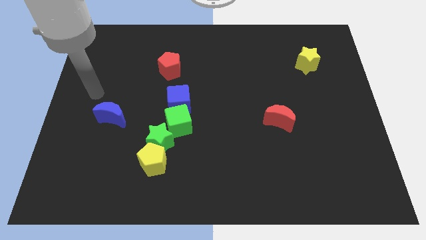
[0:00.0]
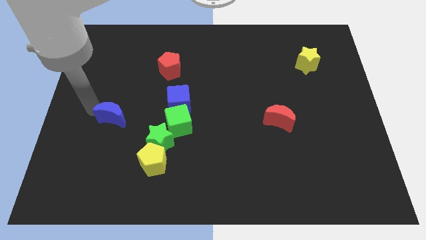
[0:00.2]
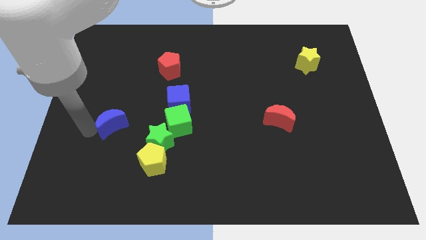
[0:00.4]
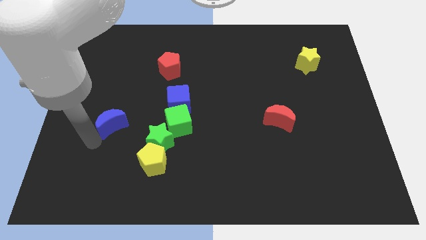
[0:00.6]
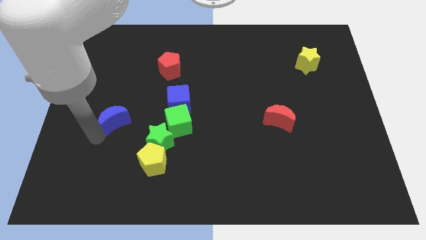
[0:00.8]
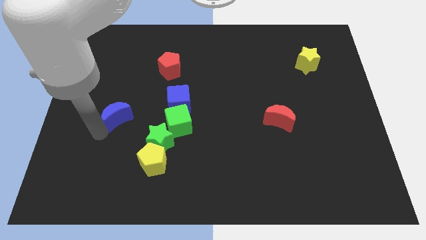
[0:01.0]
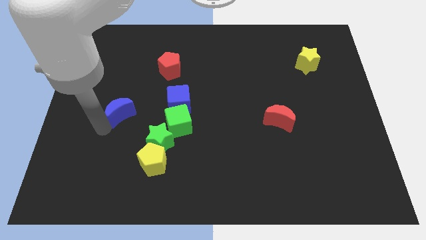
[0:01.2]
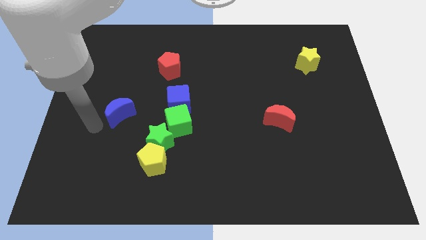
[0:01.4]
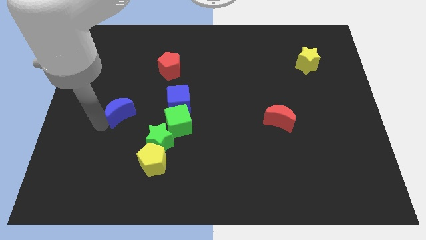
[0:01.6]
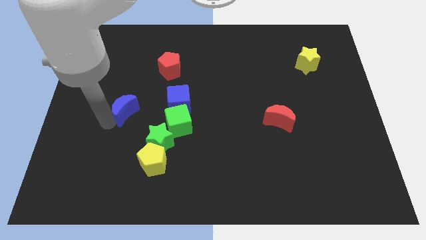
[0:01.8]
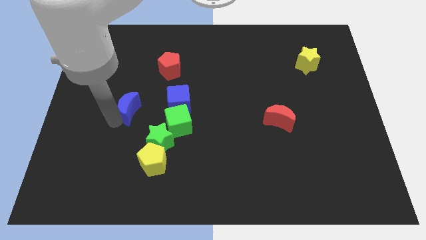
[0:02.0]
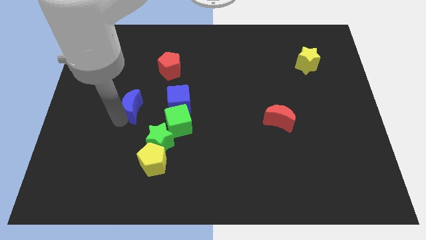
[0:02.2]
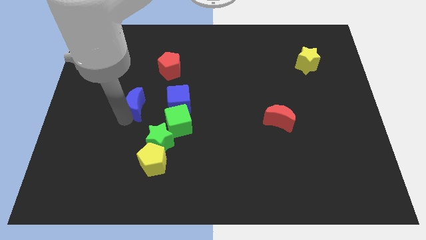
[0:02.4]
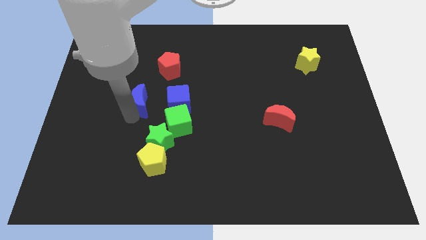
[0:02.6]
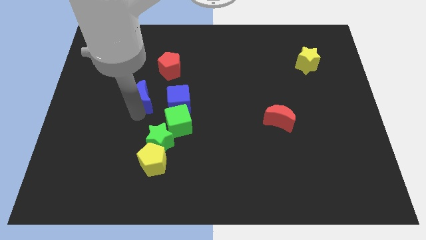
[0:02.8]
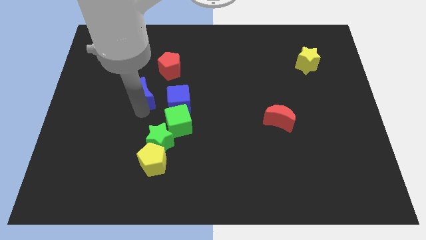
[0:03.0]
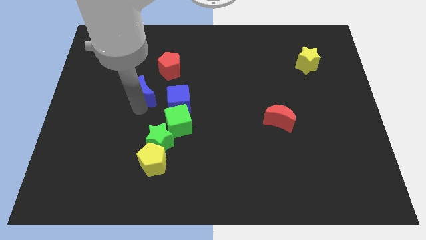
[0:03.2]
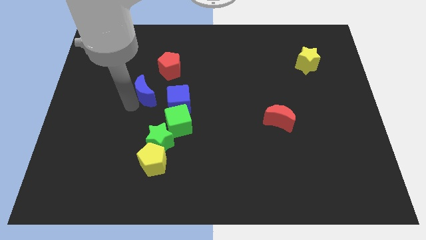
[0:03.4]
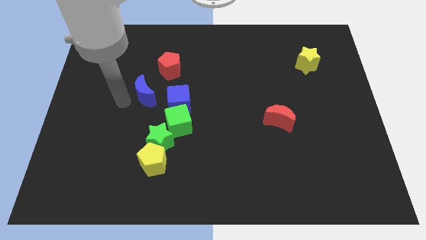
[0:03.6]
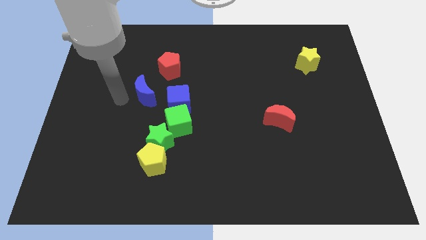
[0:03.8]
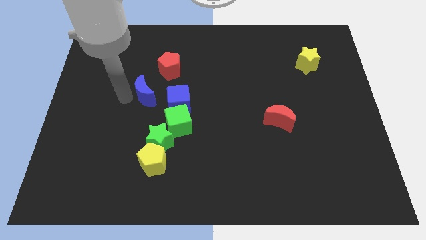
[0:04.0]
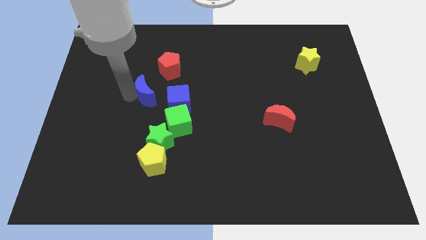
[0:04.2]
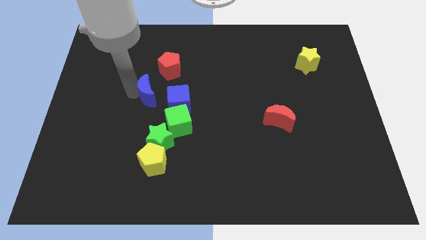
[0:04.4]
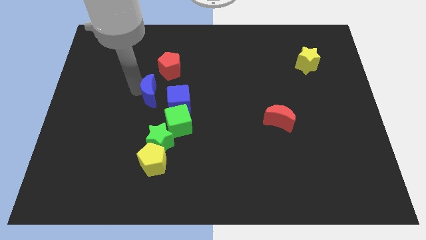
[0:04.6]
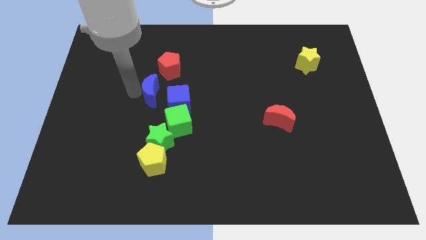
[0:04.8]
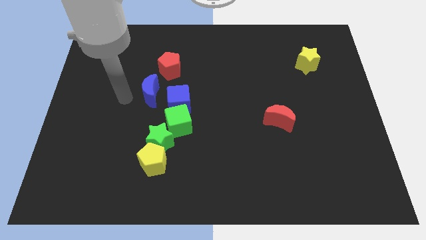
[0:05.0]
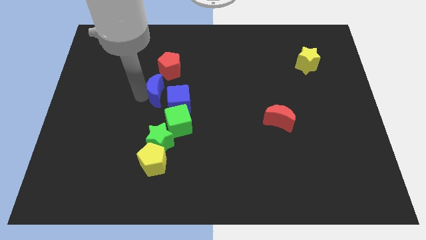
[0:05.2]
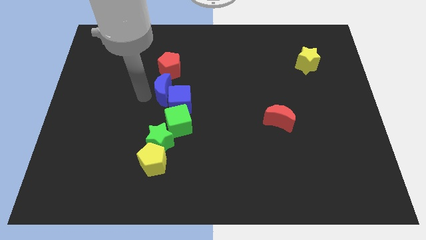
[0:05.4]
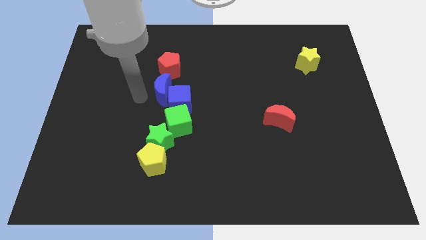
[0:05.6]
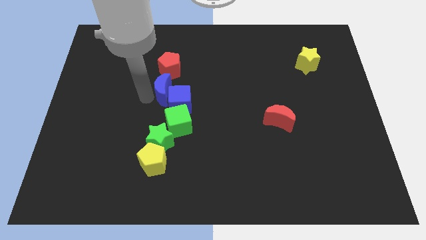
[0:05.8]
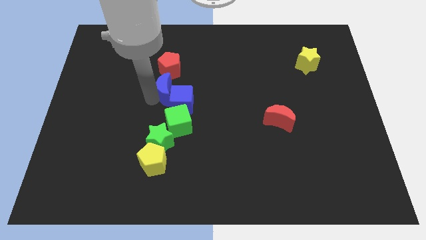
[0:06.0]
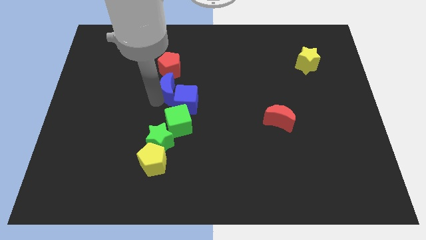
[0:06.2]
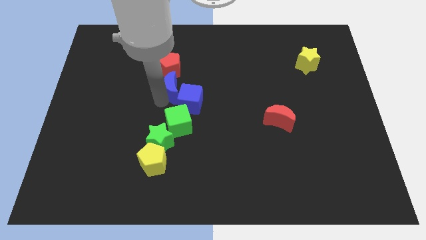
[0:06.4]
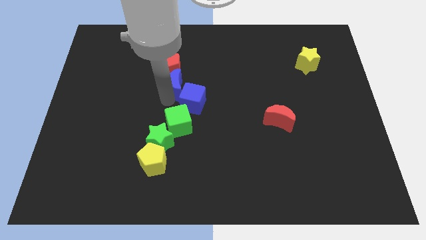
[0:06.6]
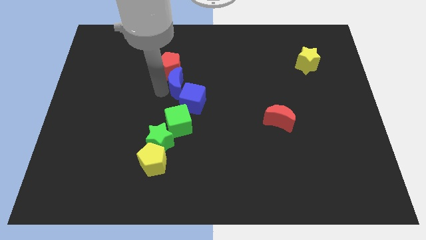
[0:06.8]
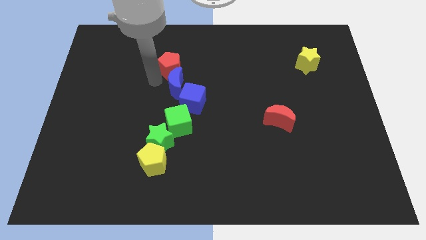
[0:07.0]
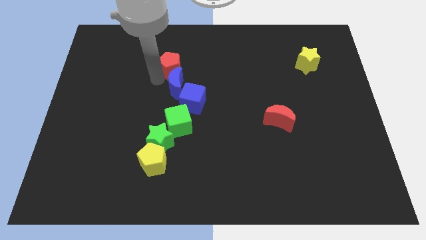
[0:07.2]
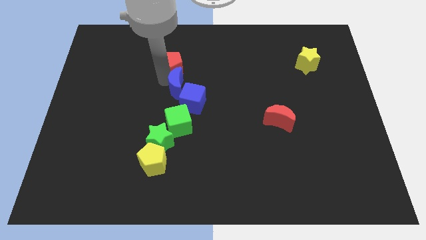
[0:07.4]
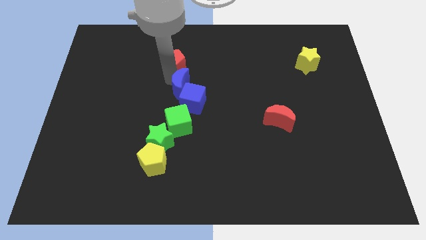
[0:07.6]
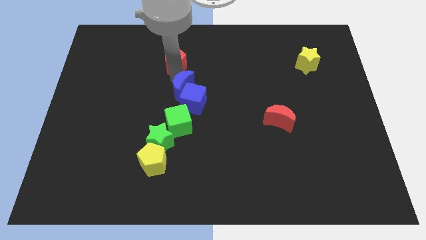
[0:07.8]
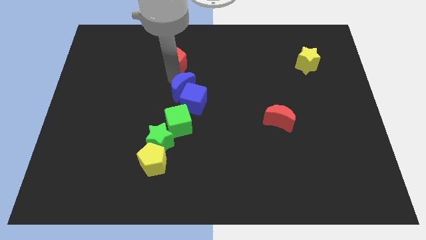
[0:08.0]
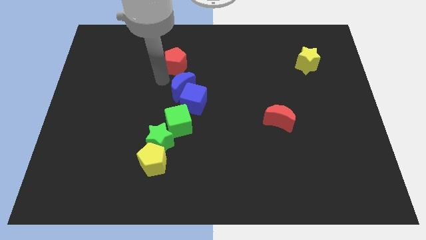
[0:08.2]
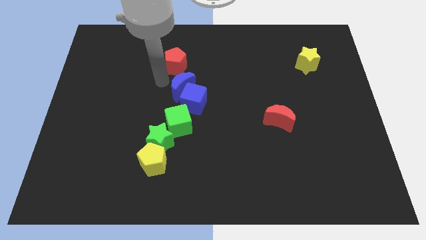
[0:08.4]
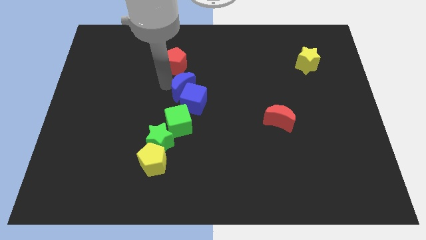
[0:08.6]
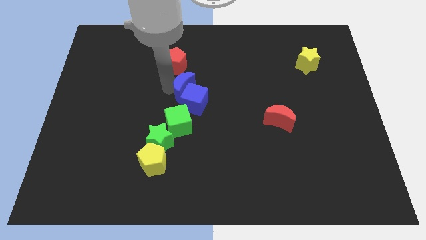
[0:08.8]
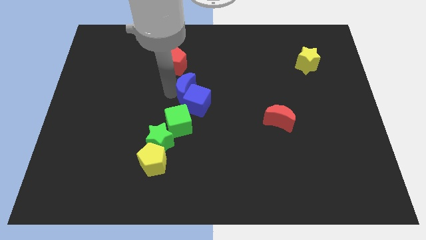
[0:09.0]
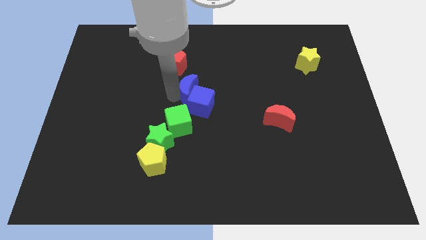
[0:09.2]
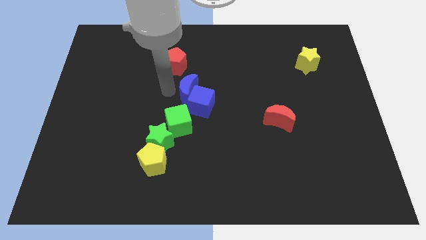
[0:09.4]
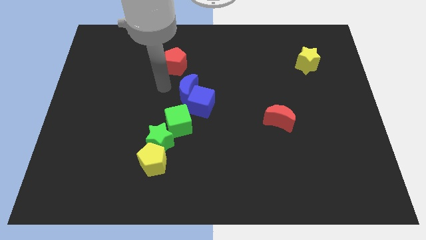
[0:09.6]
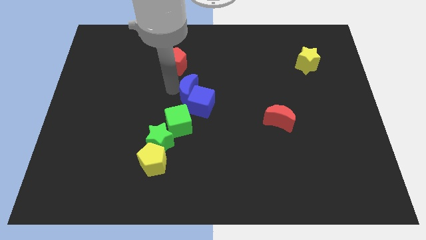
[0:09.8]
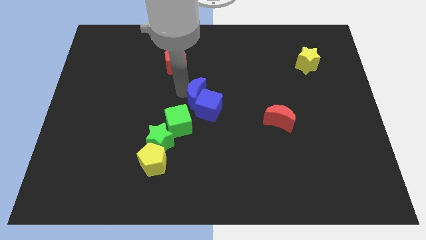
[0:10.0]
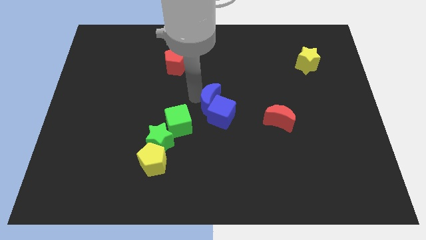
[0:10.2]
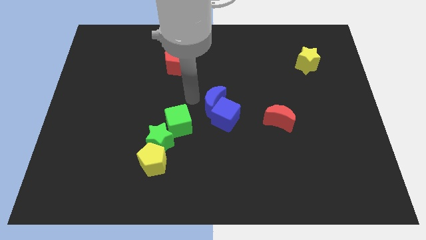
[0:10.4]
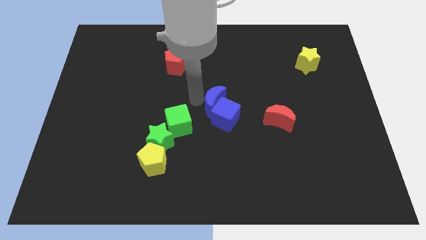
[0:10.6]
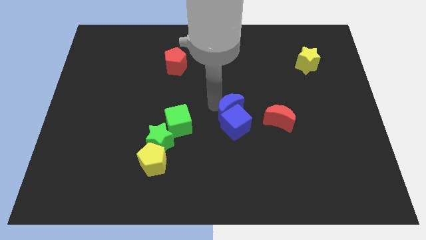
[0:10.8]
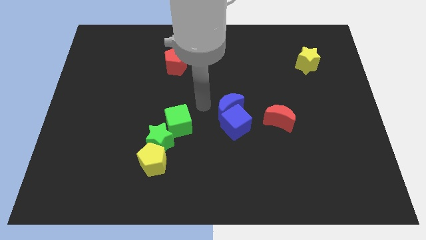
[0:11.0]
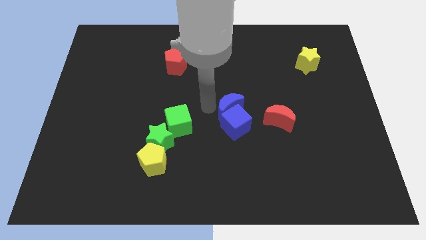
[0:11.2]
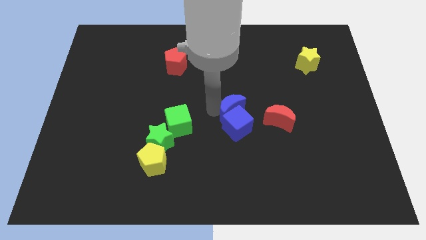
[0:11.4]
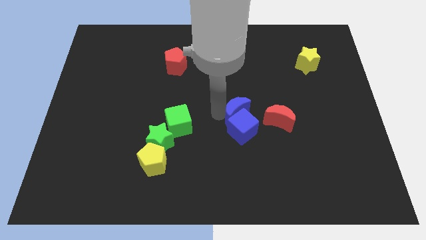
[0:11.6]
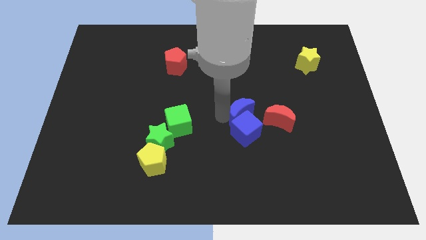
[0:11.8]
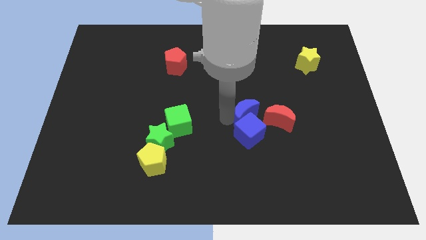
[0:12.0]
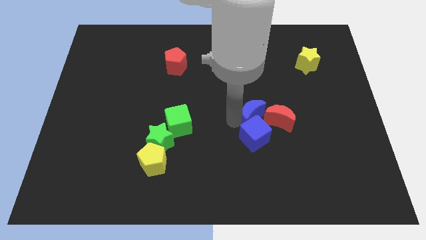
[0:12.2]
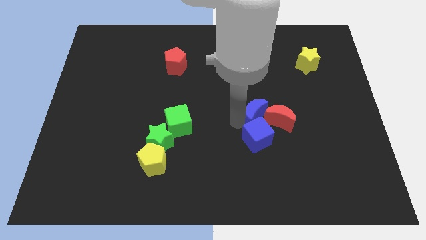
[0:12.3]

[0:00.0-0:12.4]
push the blue moon towards the red moon

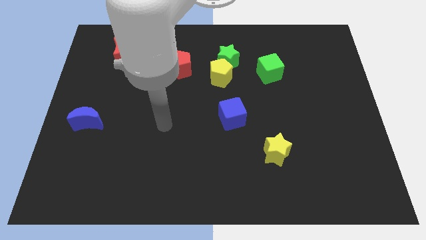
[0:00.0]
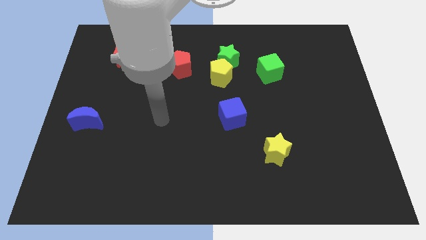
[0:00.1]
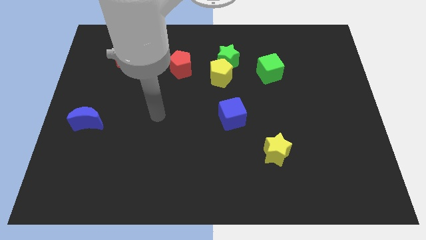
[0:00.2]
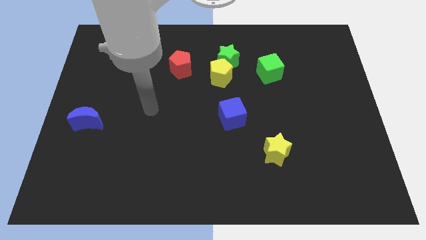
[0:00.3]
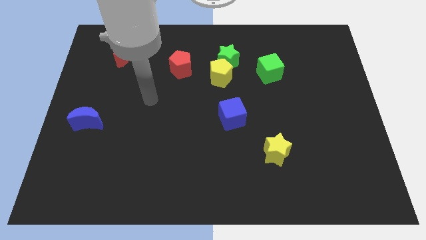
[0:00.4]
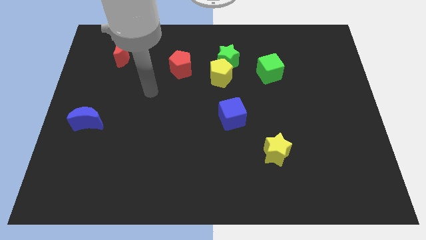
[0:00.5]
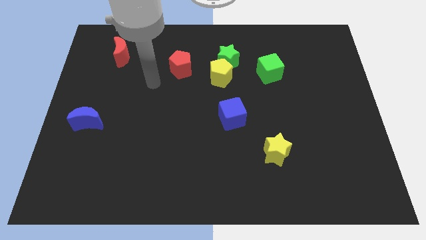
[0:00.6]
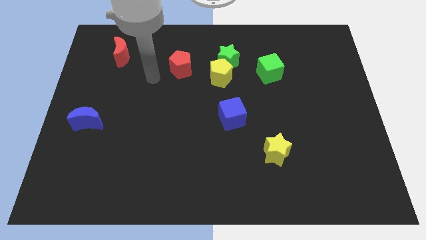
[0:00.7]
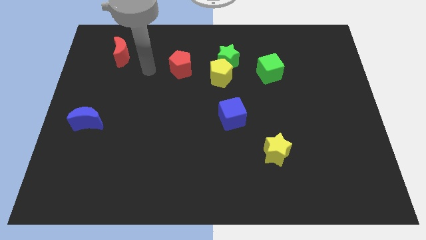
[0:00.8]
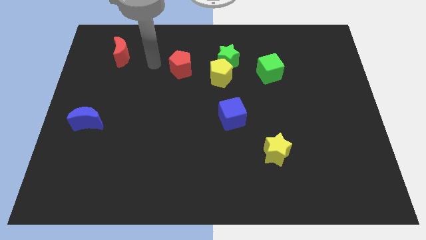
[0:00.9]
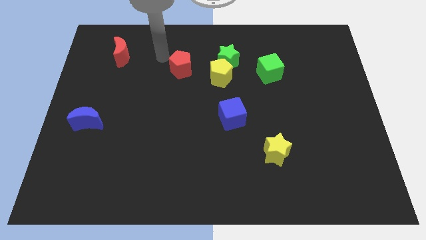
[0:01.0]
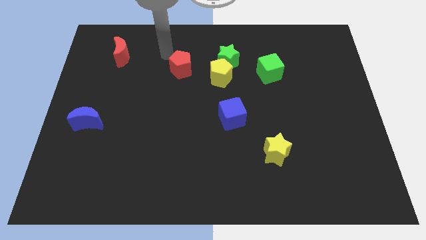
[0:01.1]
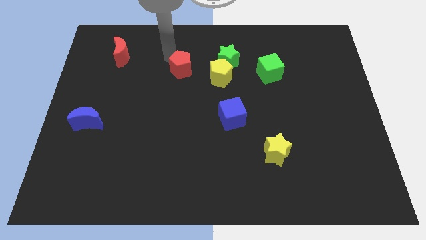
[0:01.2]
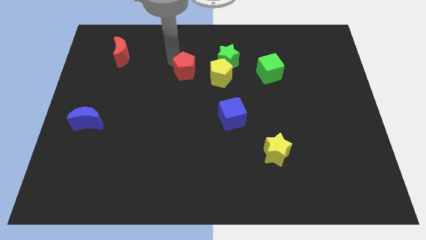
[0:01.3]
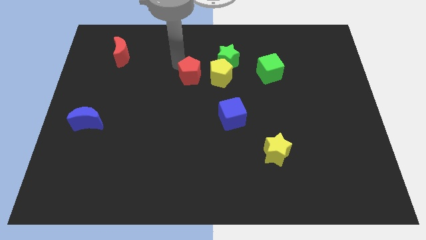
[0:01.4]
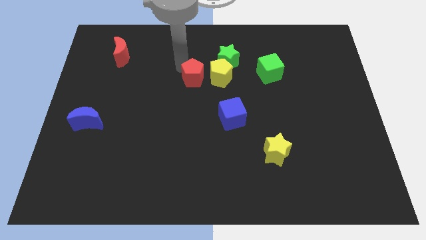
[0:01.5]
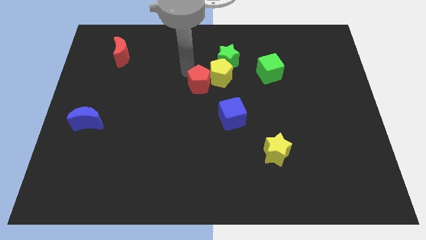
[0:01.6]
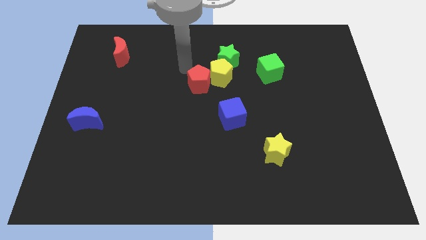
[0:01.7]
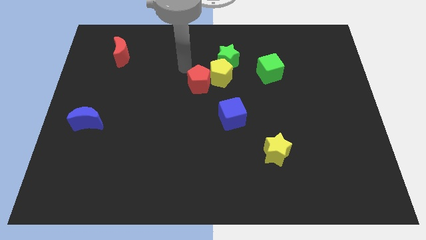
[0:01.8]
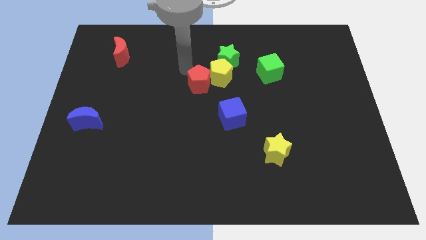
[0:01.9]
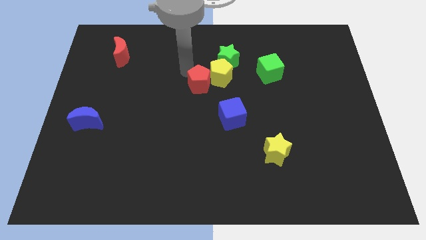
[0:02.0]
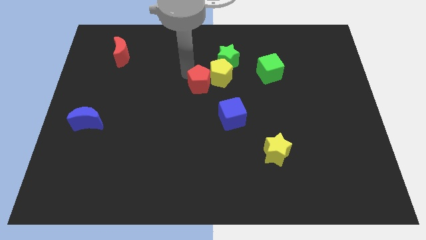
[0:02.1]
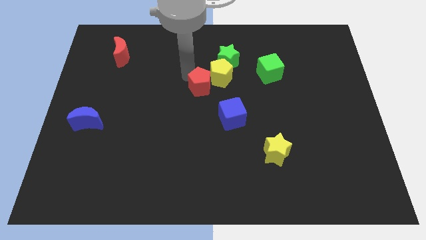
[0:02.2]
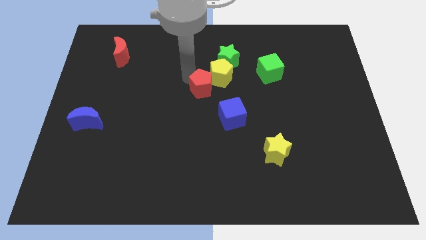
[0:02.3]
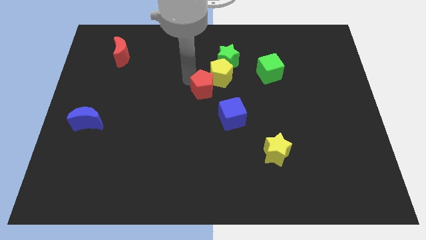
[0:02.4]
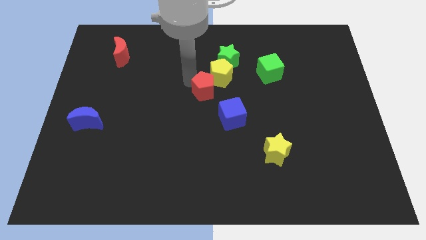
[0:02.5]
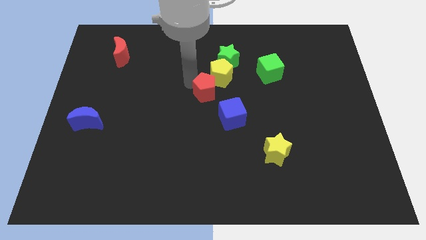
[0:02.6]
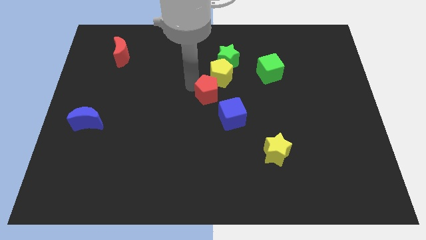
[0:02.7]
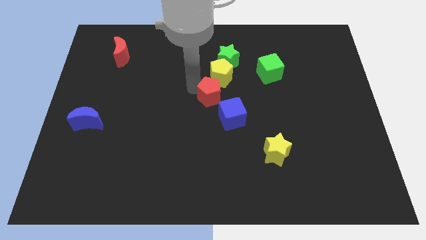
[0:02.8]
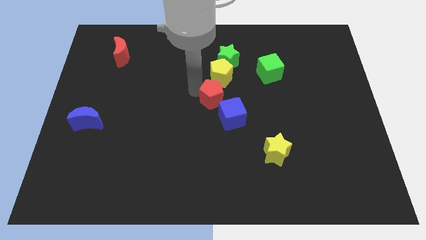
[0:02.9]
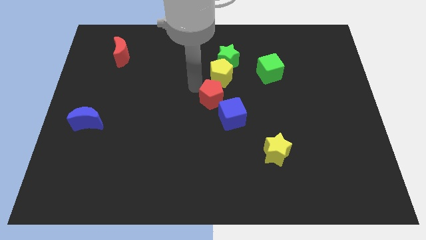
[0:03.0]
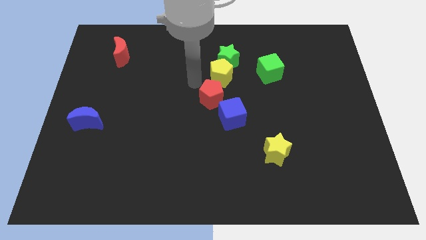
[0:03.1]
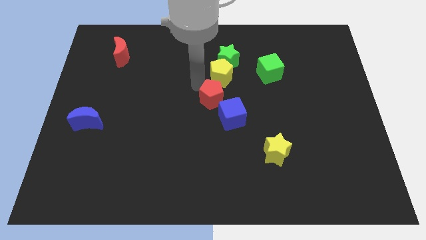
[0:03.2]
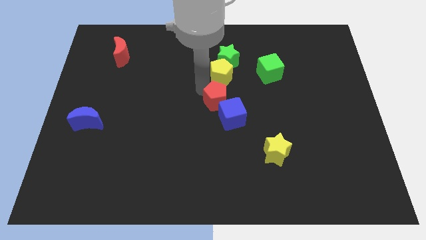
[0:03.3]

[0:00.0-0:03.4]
slide the red pentagon to the blue cube
